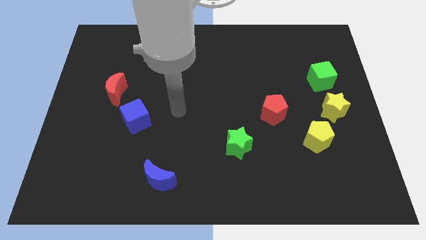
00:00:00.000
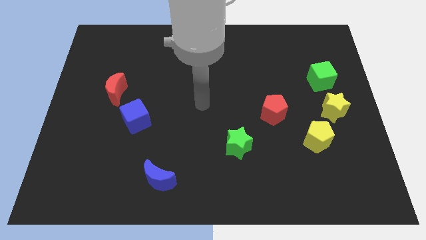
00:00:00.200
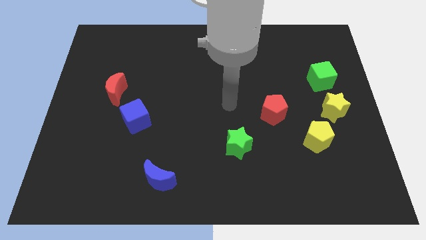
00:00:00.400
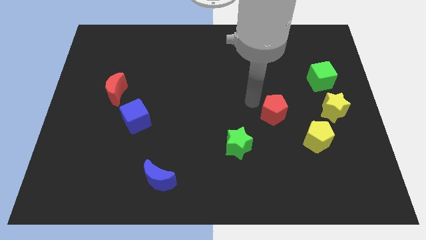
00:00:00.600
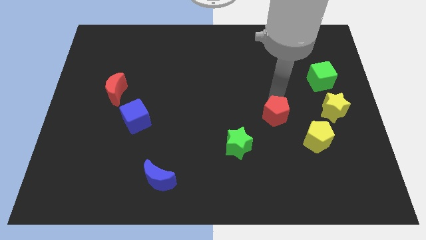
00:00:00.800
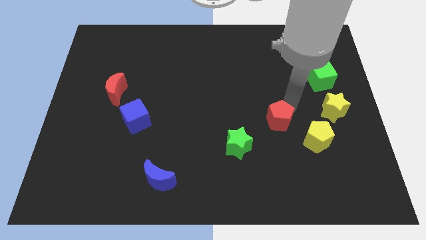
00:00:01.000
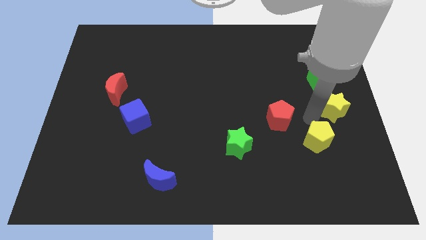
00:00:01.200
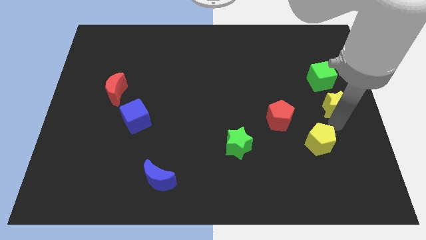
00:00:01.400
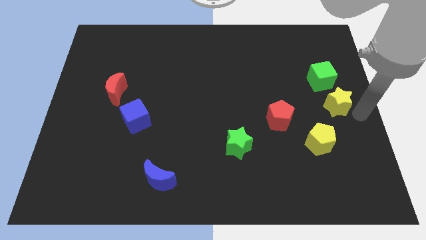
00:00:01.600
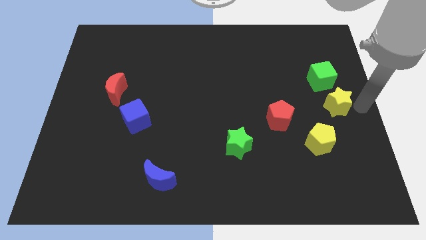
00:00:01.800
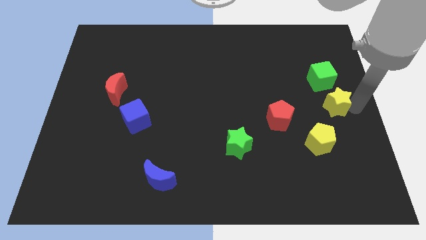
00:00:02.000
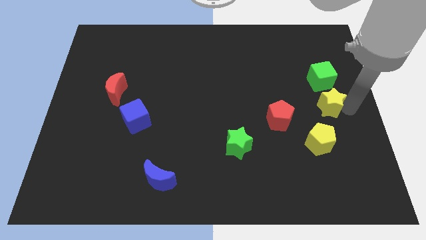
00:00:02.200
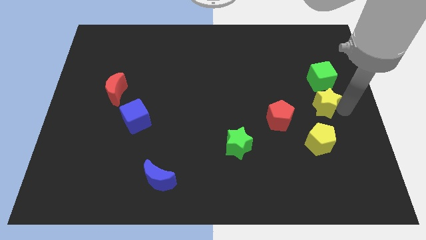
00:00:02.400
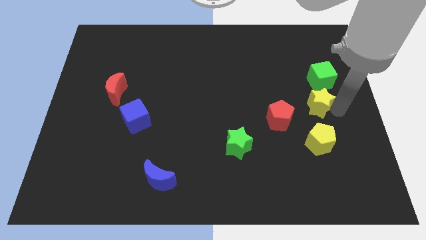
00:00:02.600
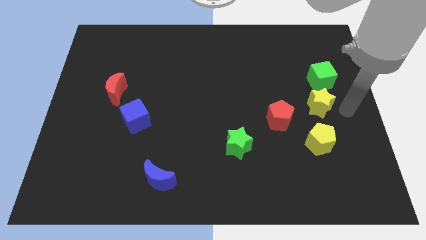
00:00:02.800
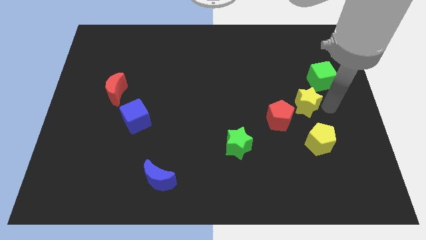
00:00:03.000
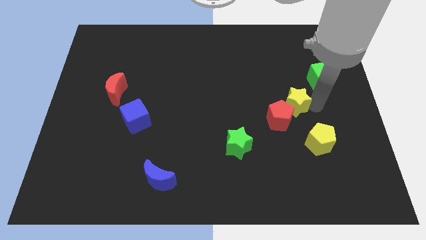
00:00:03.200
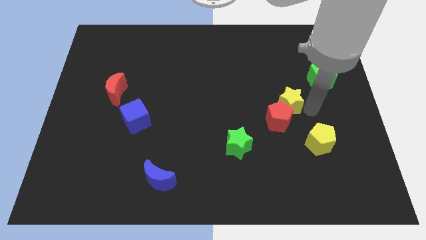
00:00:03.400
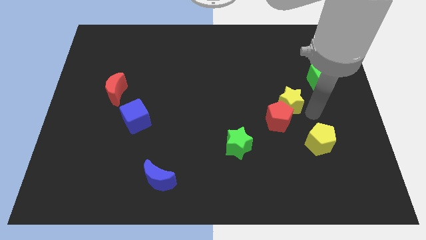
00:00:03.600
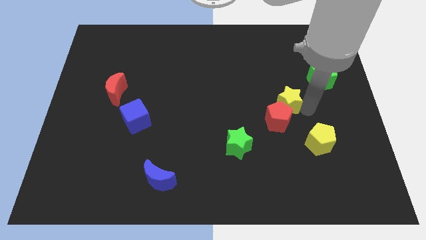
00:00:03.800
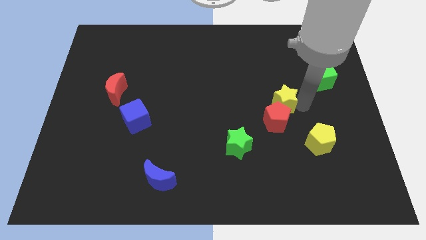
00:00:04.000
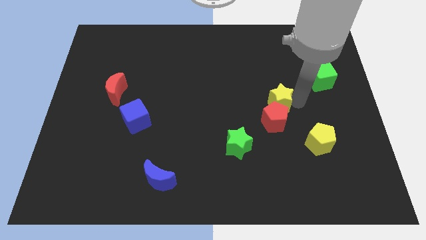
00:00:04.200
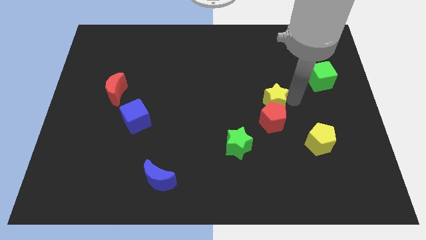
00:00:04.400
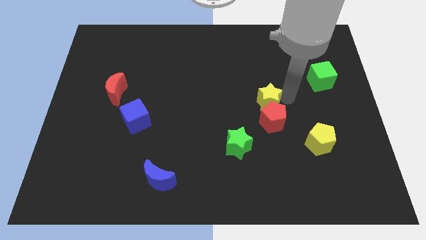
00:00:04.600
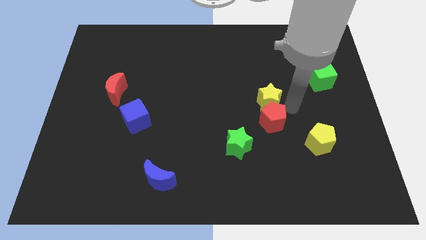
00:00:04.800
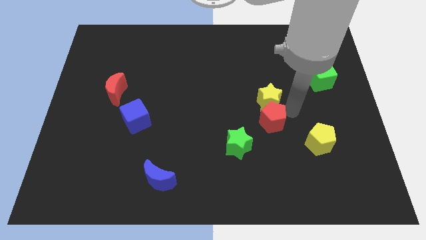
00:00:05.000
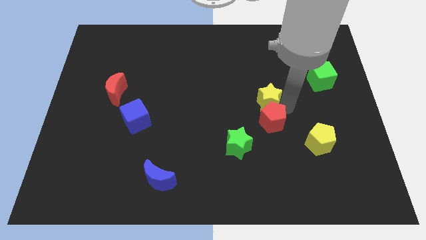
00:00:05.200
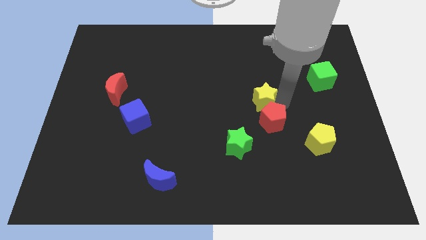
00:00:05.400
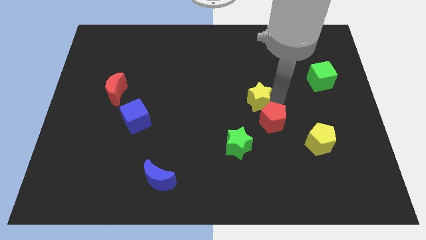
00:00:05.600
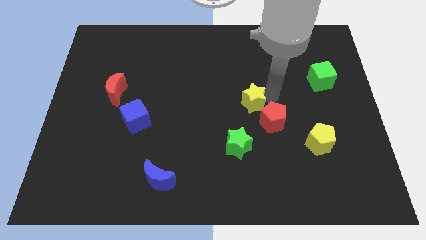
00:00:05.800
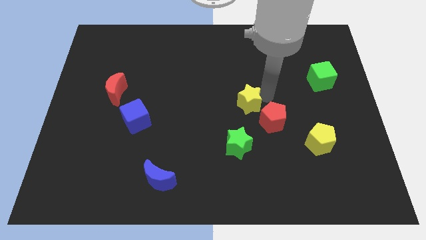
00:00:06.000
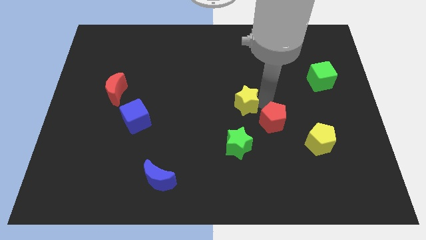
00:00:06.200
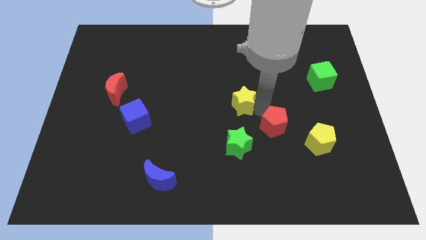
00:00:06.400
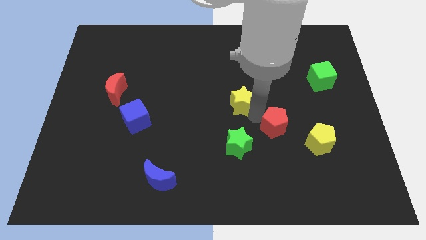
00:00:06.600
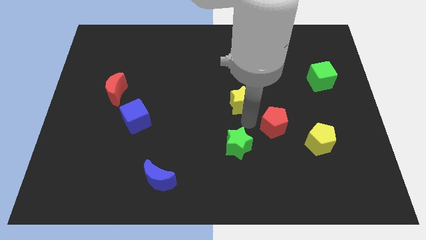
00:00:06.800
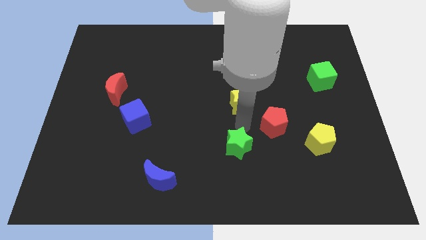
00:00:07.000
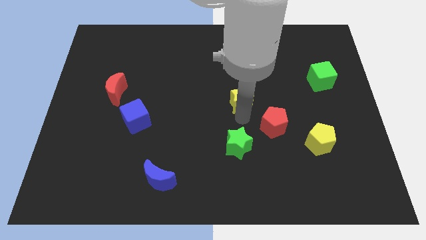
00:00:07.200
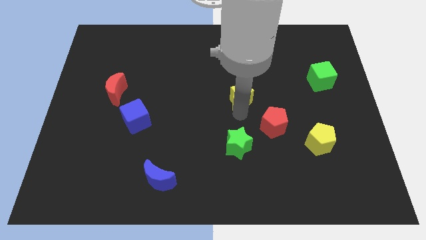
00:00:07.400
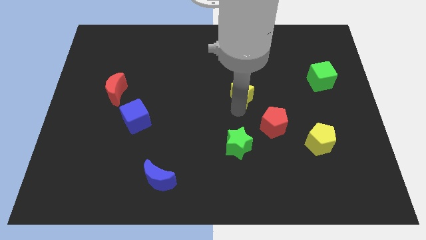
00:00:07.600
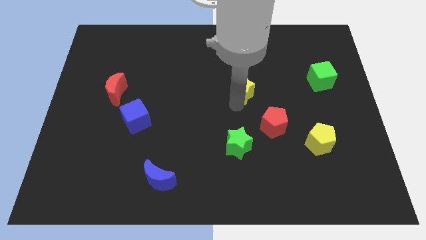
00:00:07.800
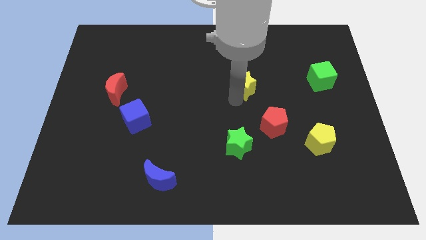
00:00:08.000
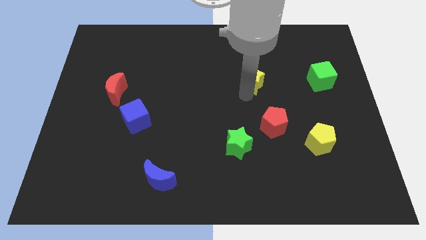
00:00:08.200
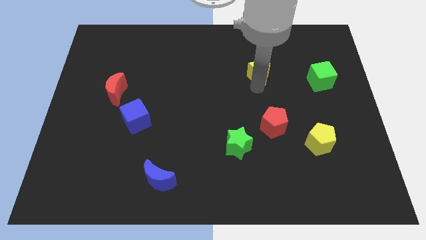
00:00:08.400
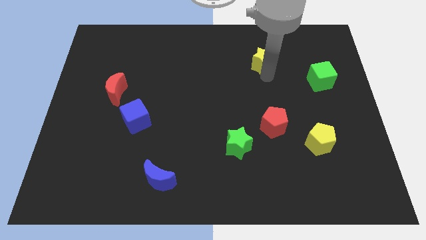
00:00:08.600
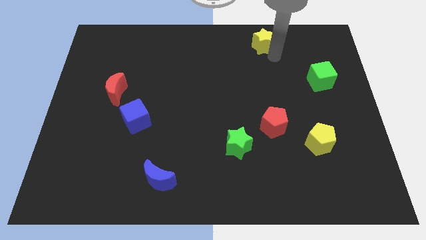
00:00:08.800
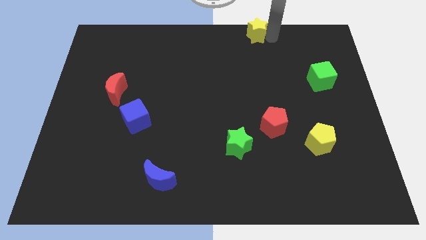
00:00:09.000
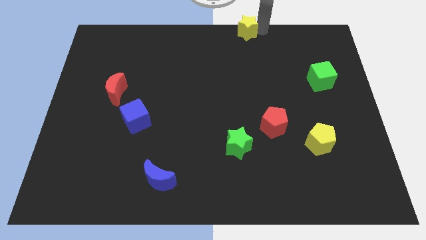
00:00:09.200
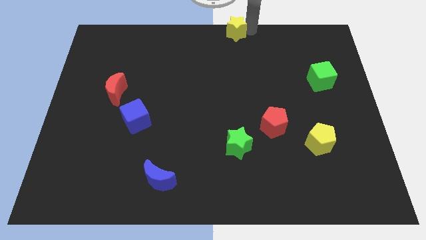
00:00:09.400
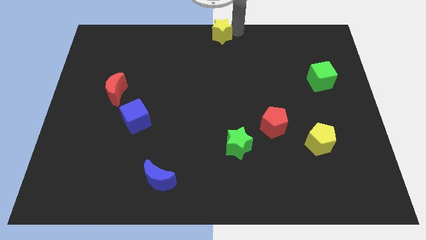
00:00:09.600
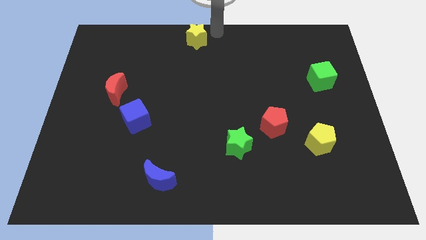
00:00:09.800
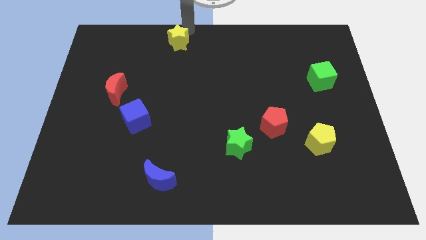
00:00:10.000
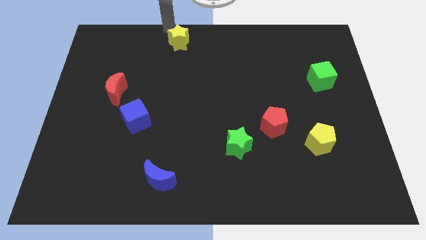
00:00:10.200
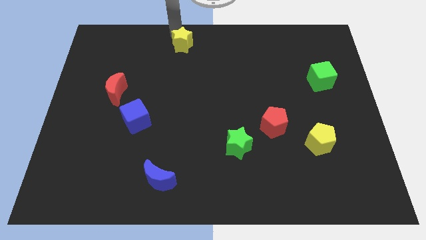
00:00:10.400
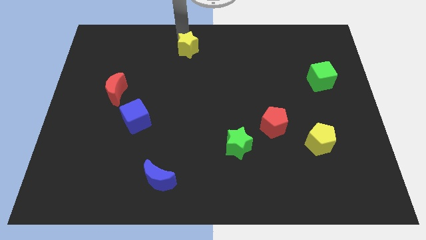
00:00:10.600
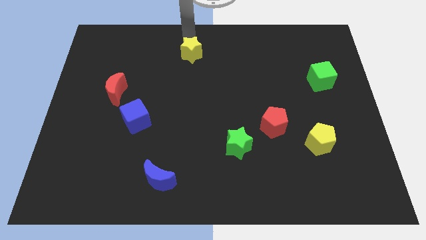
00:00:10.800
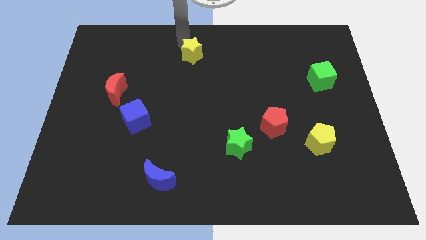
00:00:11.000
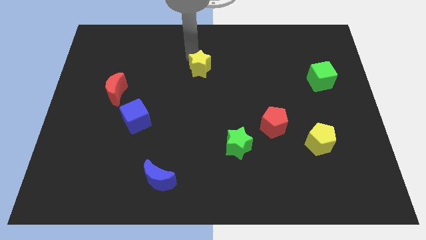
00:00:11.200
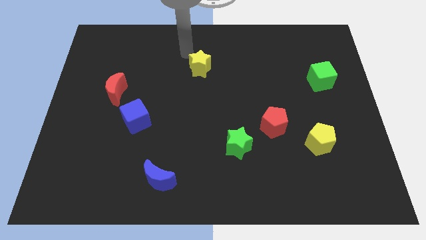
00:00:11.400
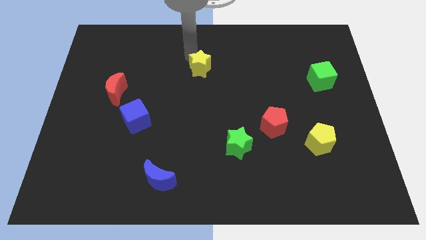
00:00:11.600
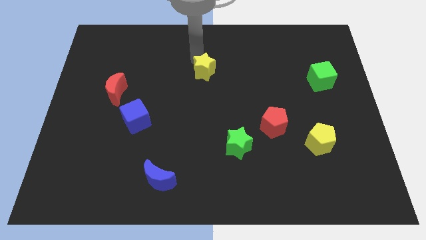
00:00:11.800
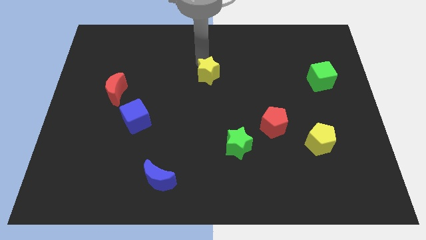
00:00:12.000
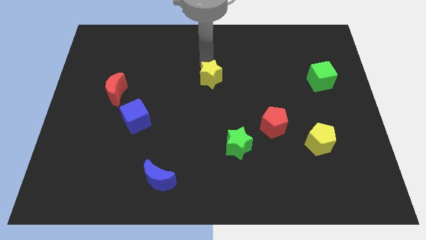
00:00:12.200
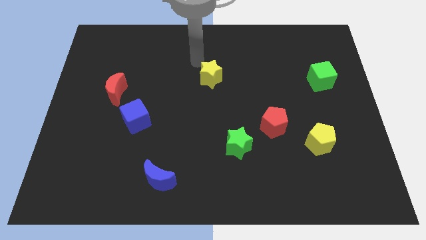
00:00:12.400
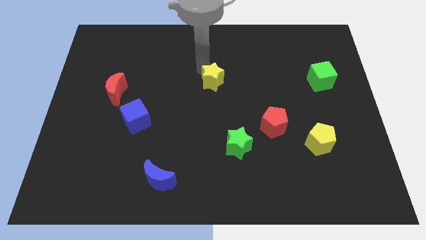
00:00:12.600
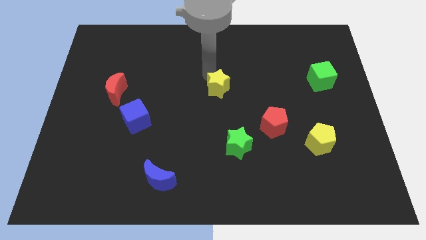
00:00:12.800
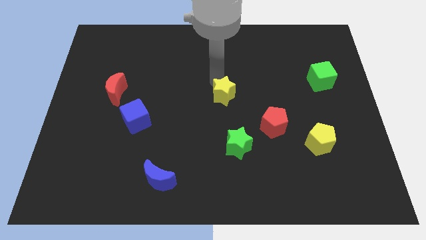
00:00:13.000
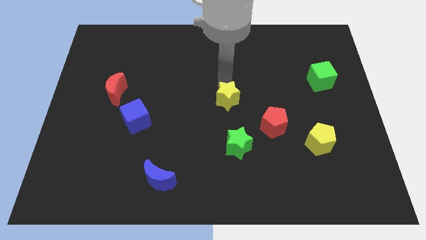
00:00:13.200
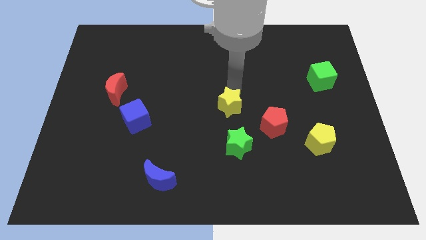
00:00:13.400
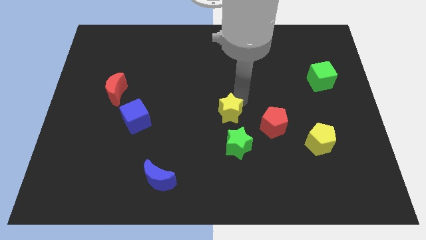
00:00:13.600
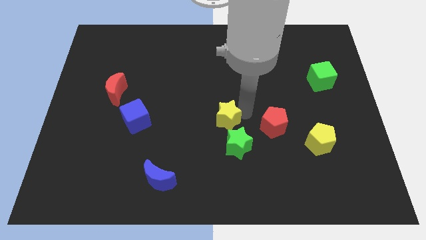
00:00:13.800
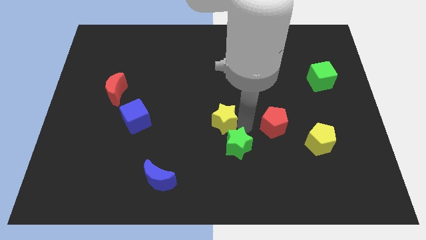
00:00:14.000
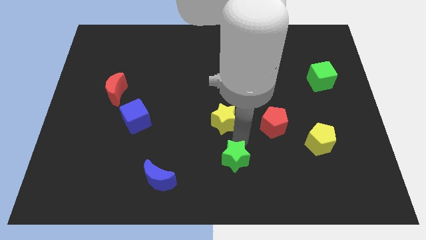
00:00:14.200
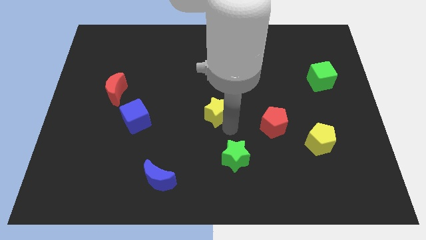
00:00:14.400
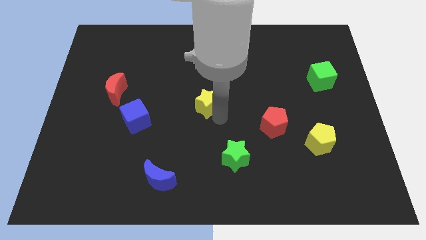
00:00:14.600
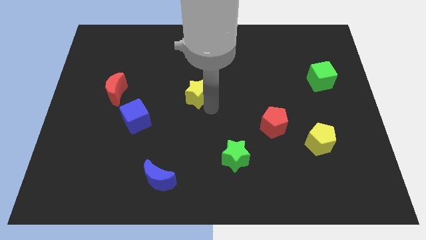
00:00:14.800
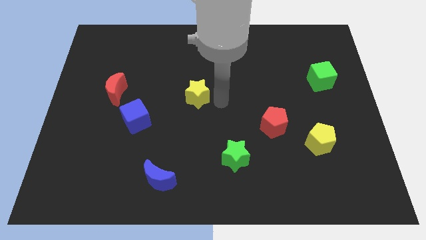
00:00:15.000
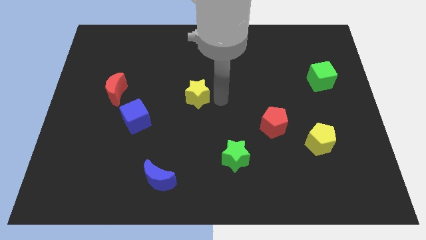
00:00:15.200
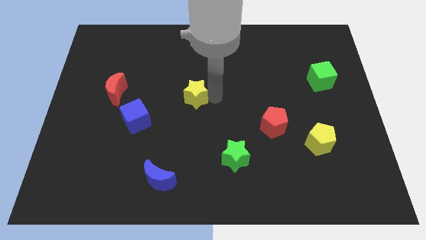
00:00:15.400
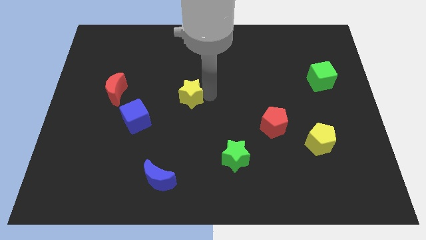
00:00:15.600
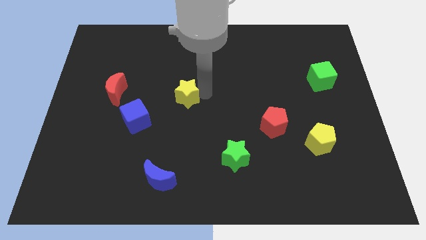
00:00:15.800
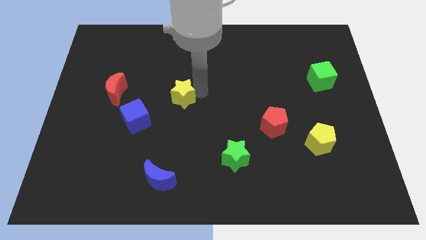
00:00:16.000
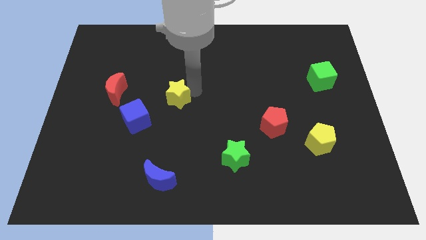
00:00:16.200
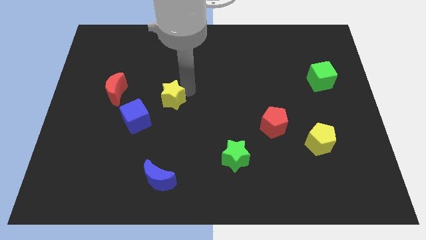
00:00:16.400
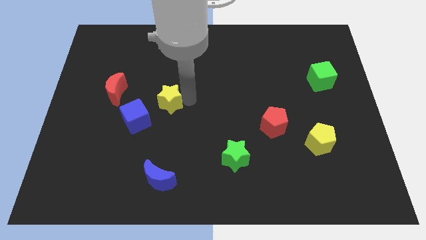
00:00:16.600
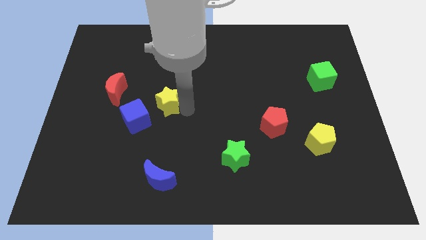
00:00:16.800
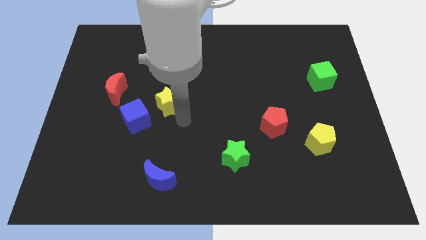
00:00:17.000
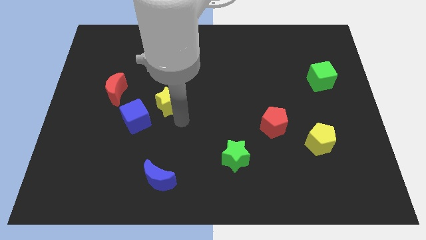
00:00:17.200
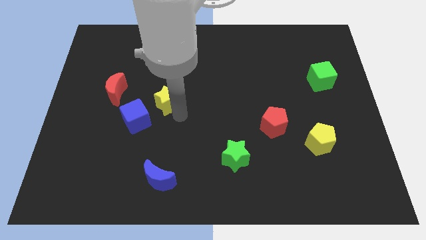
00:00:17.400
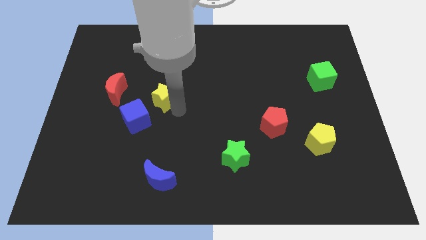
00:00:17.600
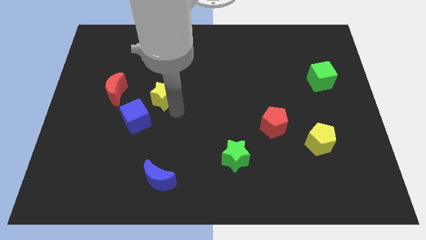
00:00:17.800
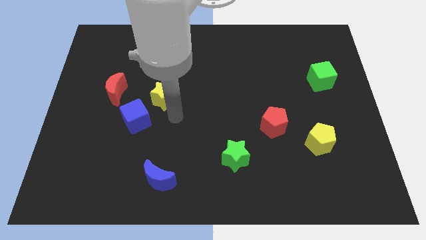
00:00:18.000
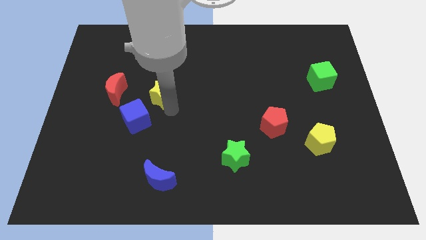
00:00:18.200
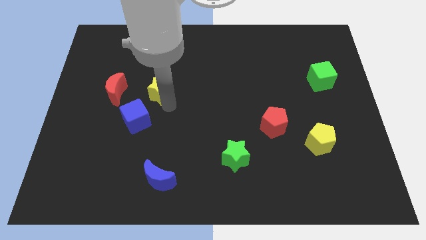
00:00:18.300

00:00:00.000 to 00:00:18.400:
move the yellow star above the blue cube
